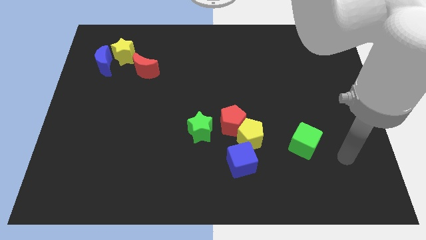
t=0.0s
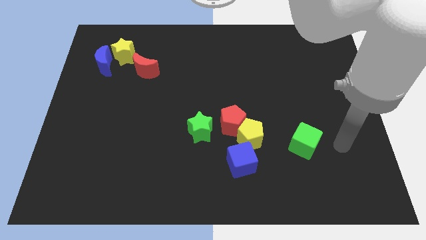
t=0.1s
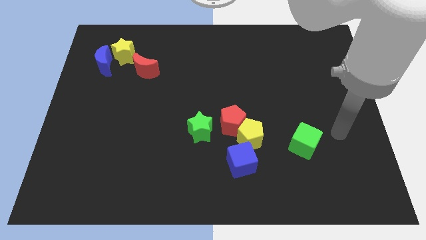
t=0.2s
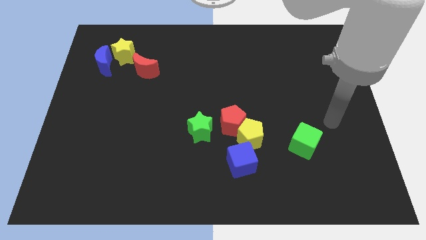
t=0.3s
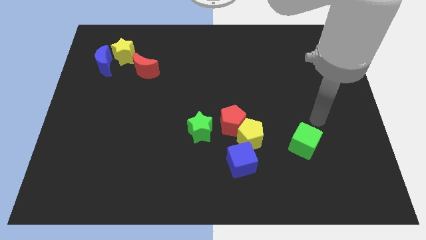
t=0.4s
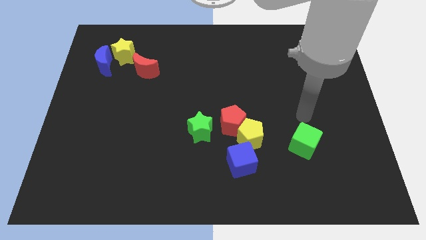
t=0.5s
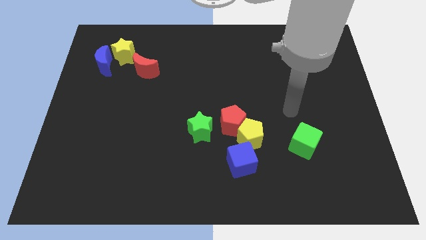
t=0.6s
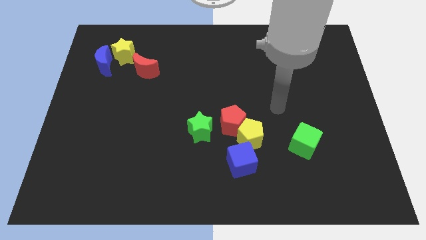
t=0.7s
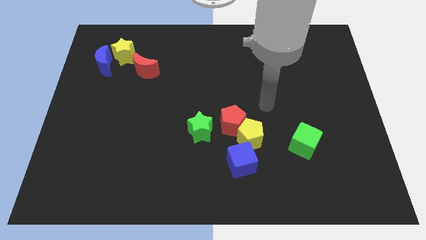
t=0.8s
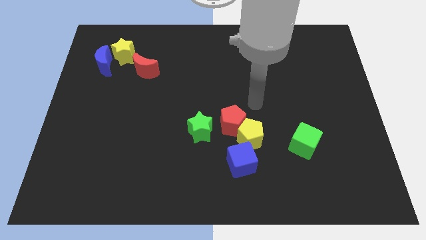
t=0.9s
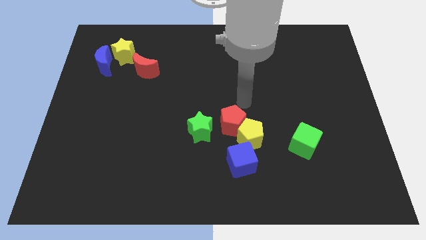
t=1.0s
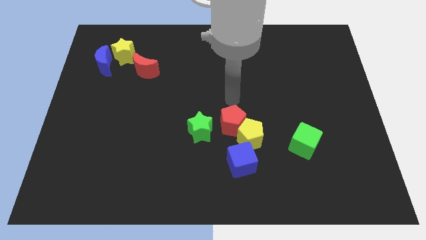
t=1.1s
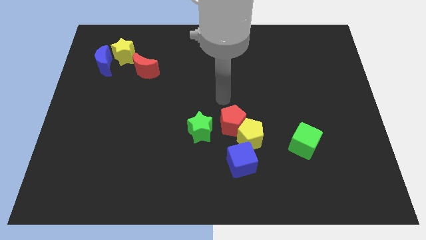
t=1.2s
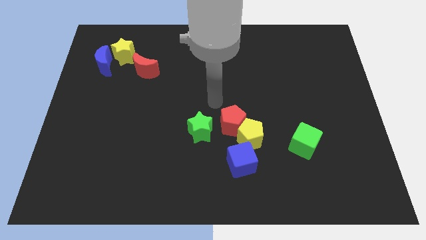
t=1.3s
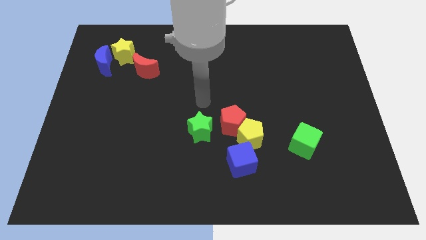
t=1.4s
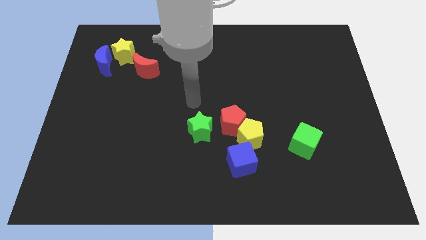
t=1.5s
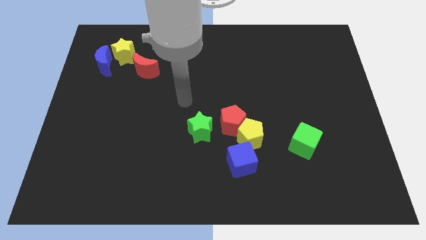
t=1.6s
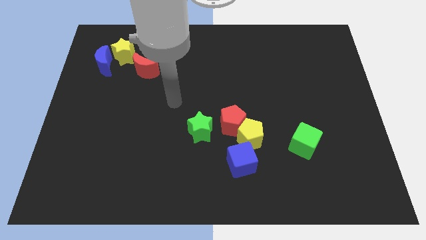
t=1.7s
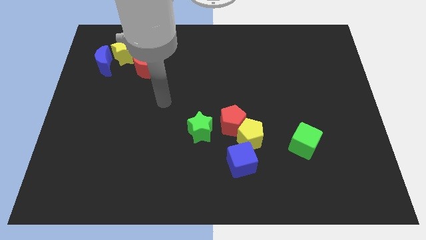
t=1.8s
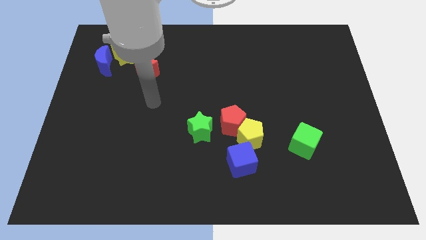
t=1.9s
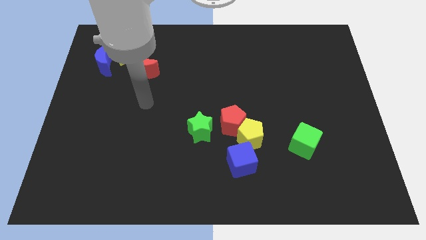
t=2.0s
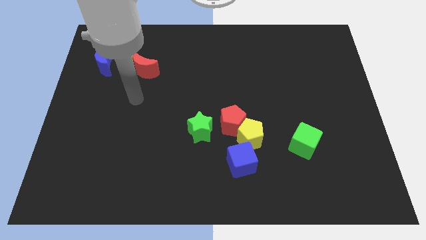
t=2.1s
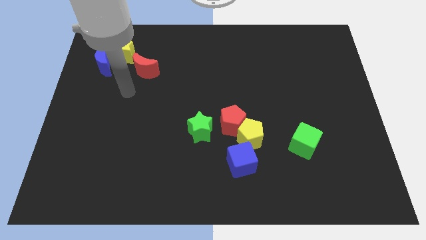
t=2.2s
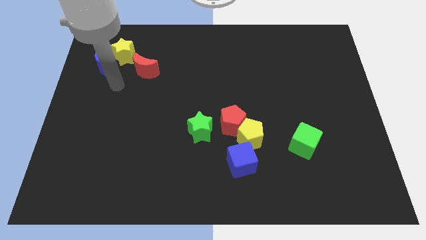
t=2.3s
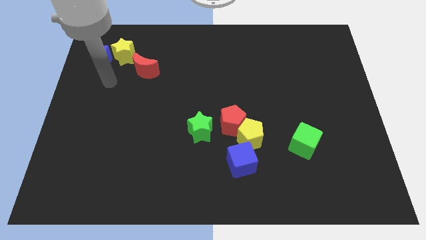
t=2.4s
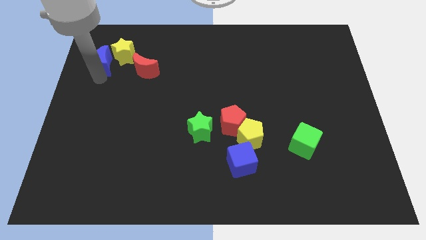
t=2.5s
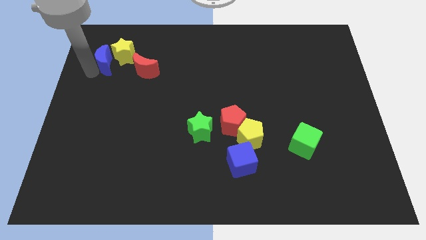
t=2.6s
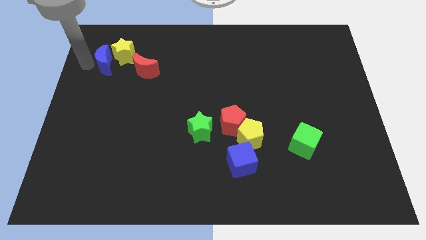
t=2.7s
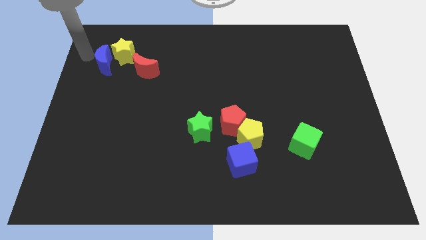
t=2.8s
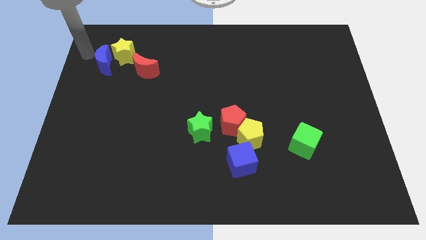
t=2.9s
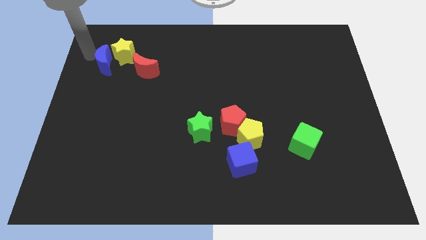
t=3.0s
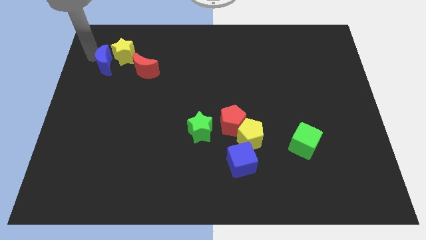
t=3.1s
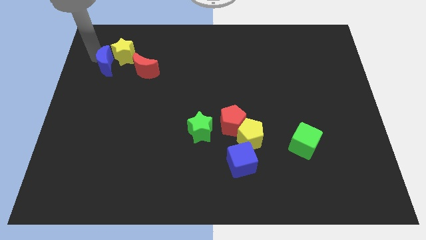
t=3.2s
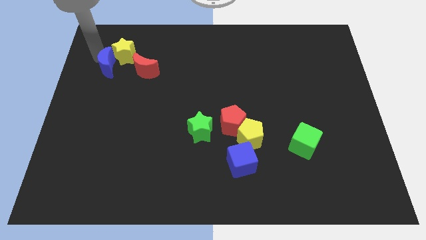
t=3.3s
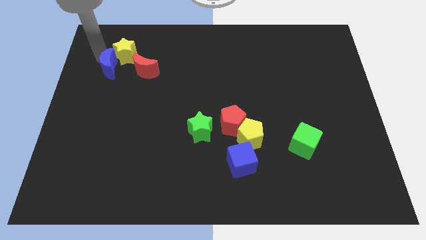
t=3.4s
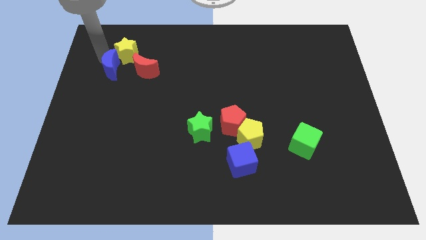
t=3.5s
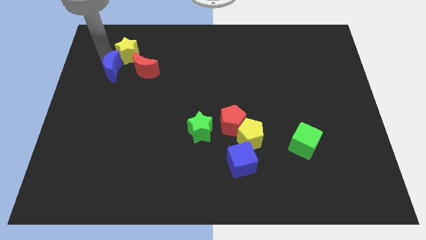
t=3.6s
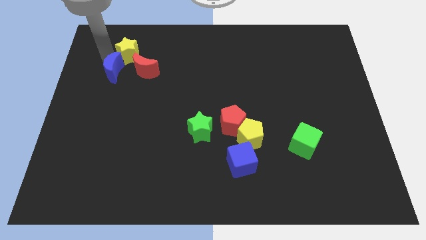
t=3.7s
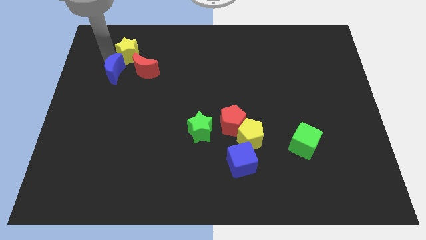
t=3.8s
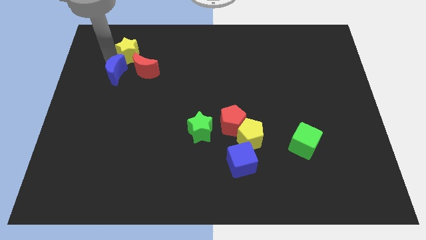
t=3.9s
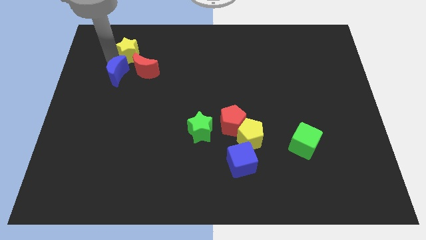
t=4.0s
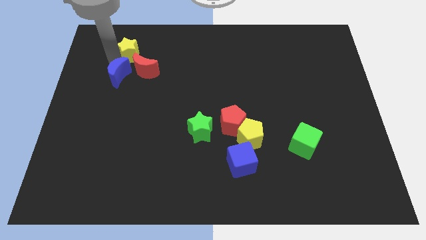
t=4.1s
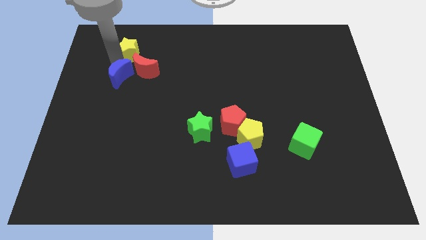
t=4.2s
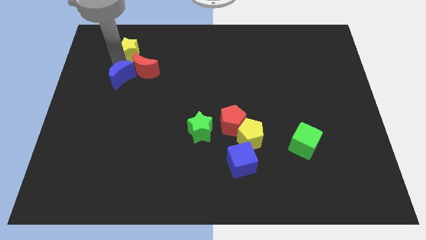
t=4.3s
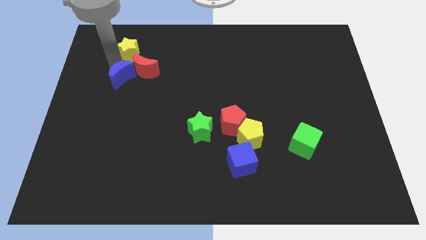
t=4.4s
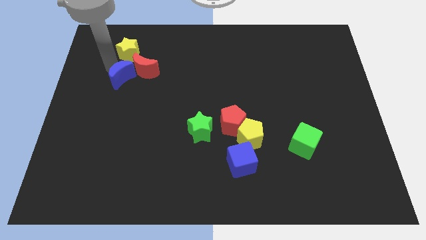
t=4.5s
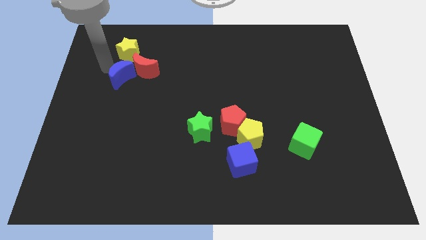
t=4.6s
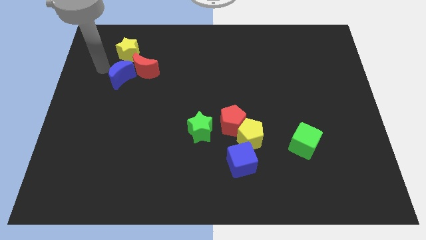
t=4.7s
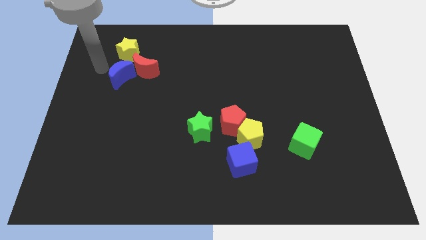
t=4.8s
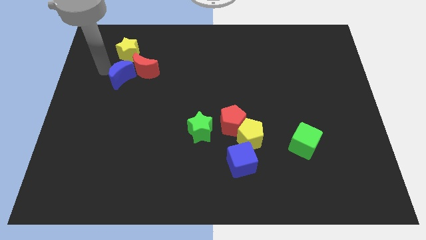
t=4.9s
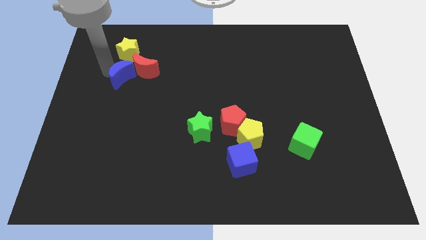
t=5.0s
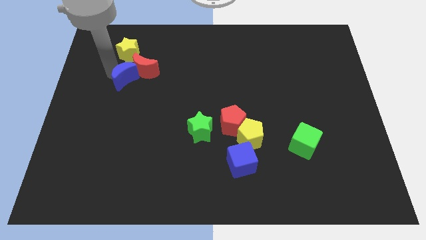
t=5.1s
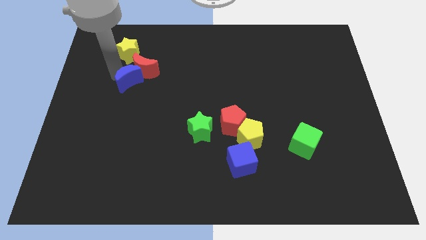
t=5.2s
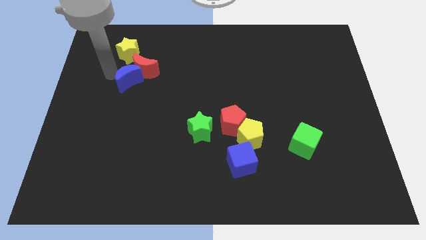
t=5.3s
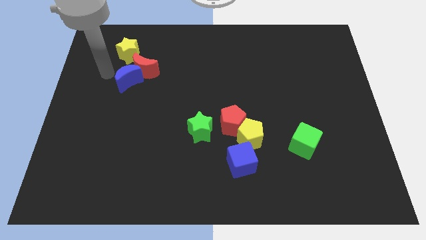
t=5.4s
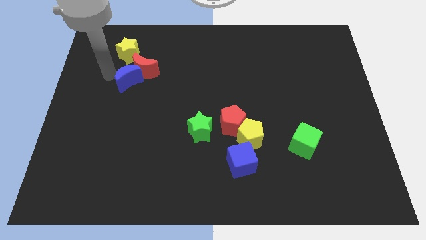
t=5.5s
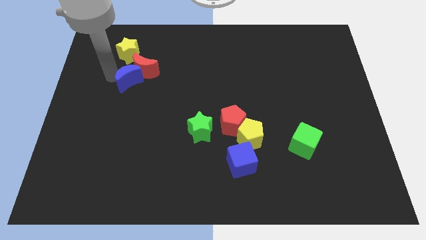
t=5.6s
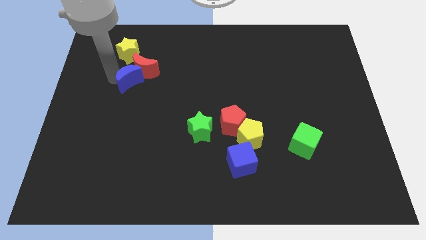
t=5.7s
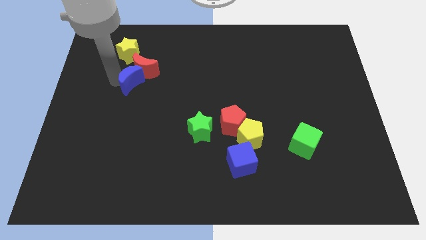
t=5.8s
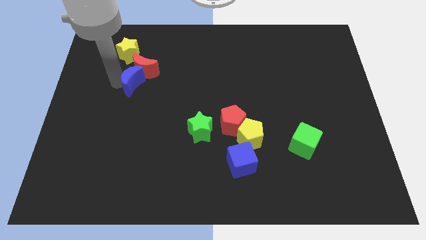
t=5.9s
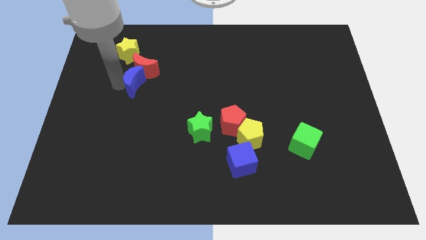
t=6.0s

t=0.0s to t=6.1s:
move the blue moon a bit to the right

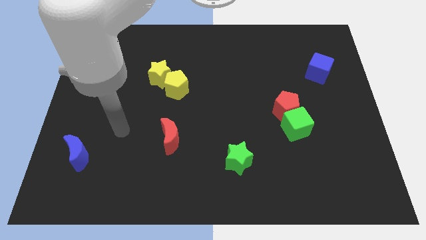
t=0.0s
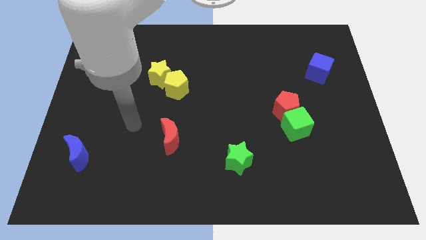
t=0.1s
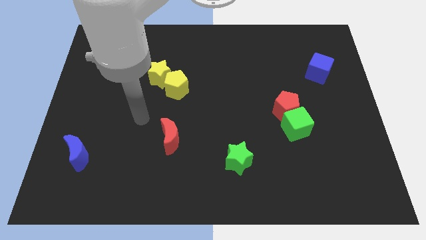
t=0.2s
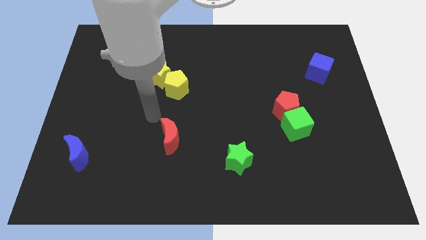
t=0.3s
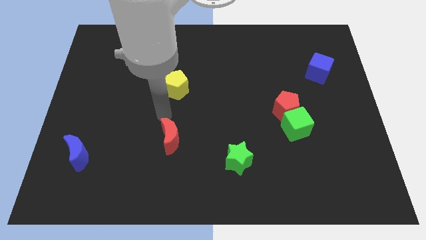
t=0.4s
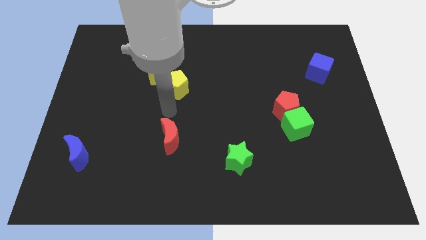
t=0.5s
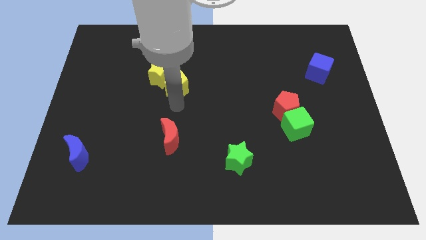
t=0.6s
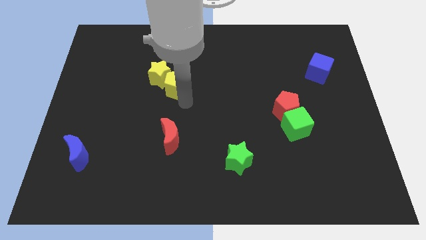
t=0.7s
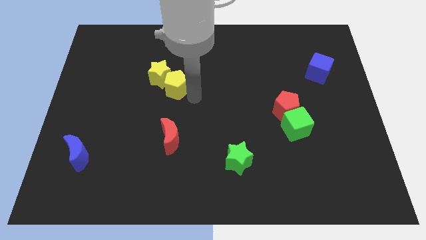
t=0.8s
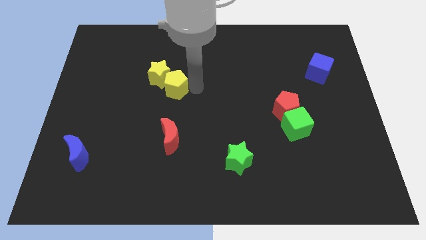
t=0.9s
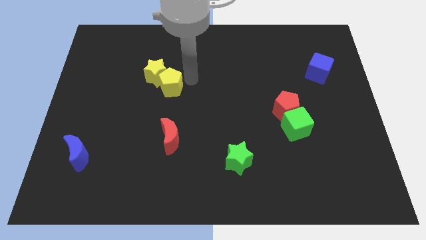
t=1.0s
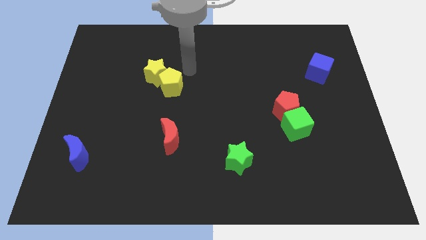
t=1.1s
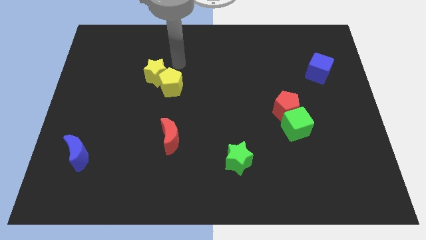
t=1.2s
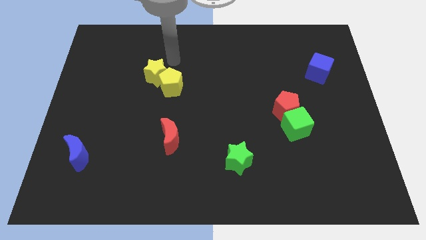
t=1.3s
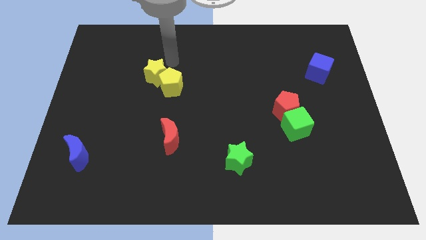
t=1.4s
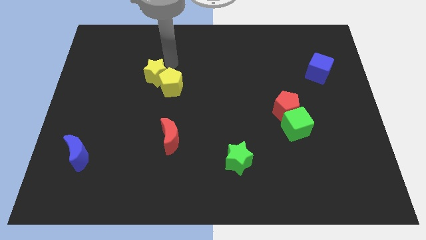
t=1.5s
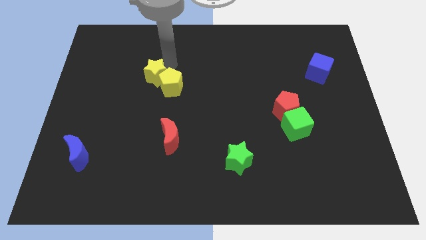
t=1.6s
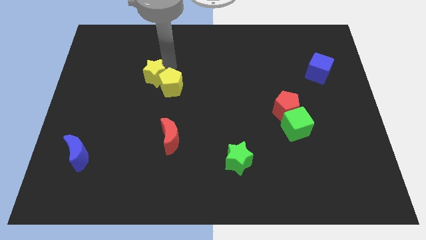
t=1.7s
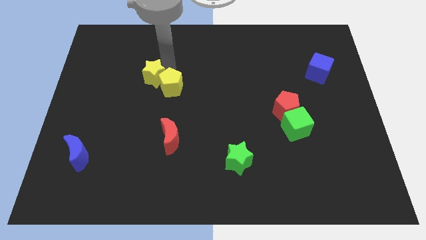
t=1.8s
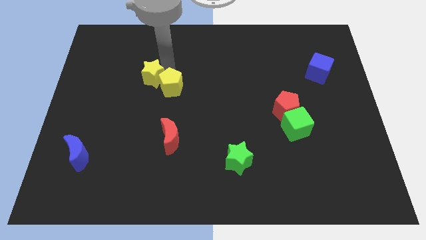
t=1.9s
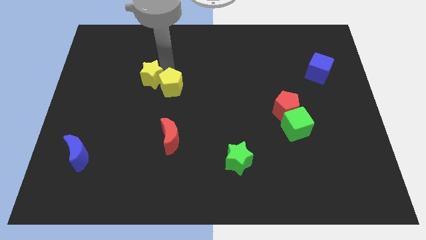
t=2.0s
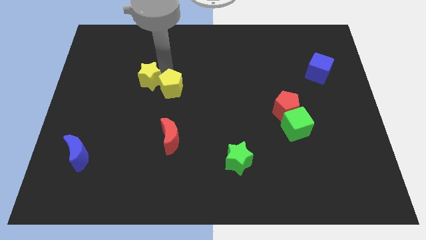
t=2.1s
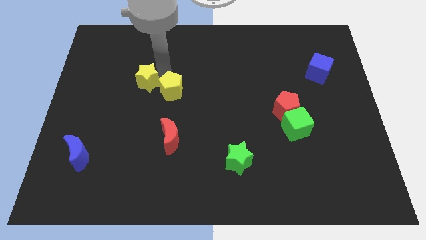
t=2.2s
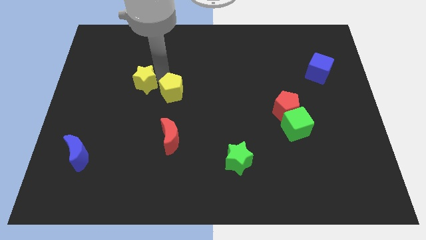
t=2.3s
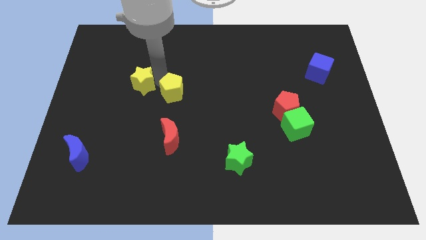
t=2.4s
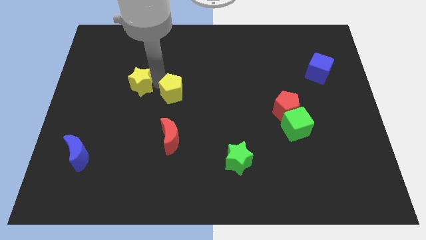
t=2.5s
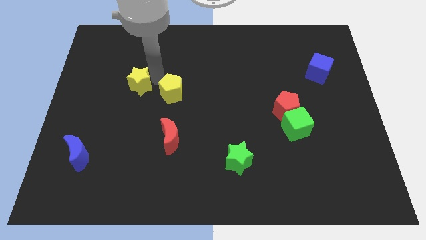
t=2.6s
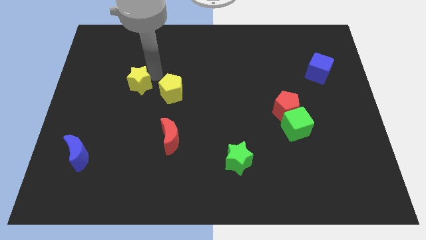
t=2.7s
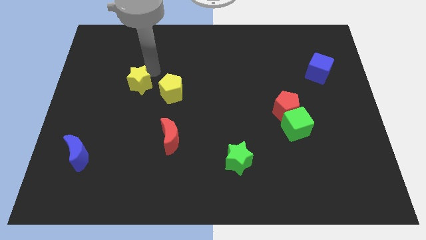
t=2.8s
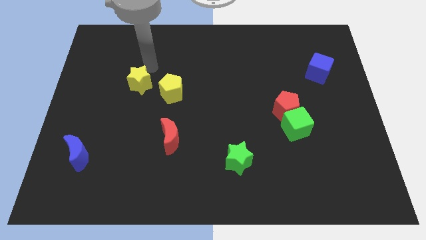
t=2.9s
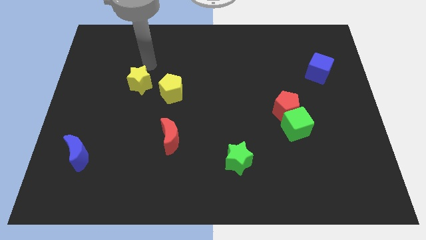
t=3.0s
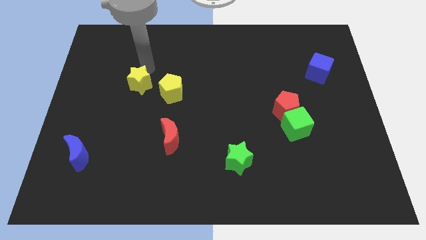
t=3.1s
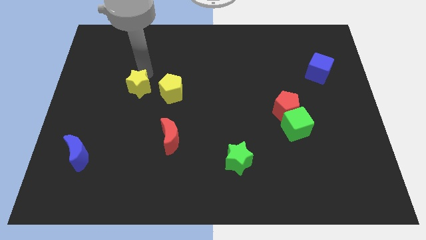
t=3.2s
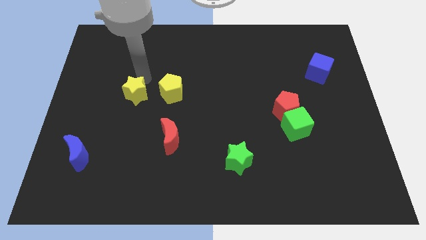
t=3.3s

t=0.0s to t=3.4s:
slightly slide the yellow star down and left diagonally
